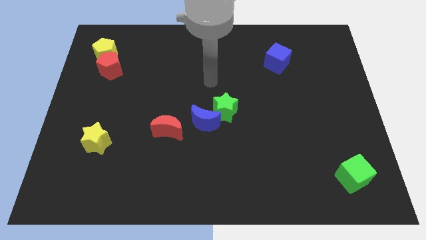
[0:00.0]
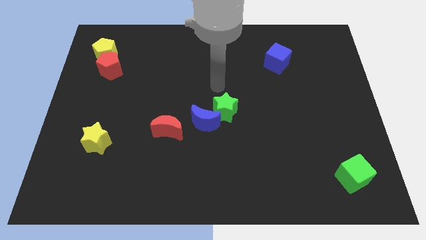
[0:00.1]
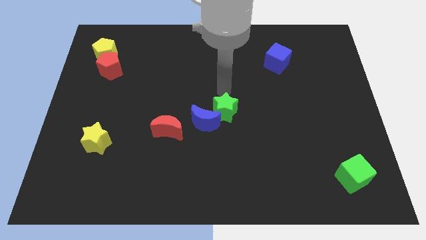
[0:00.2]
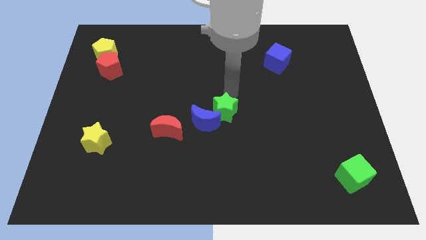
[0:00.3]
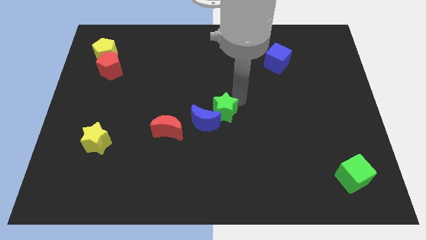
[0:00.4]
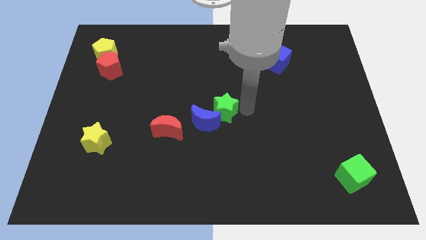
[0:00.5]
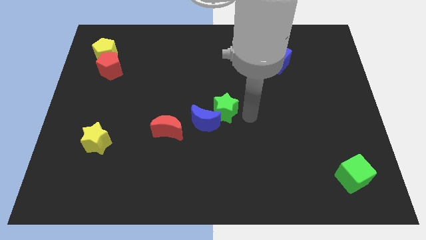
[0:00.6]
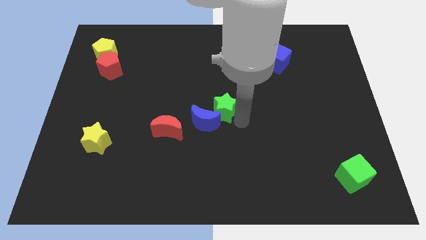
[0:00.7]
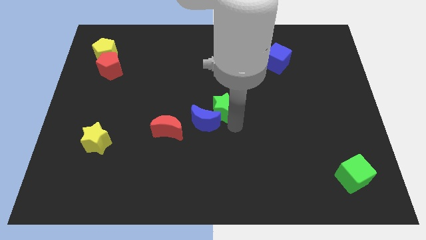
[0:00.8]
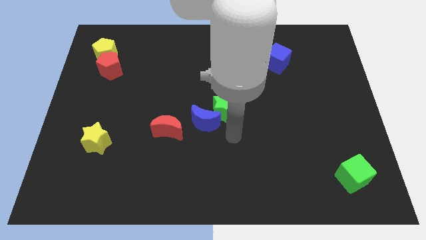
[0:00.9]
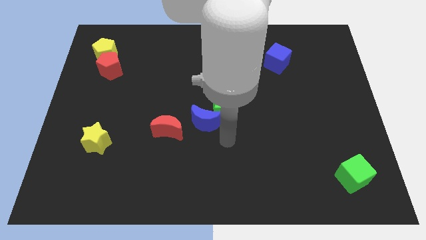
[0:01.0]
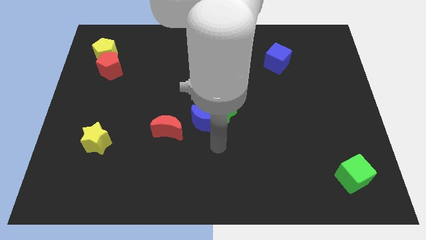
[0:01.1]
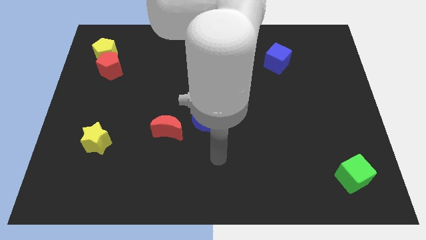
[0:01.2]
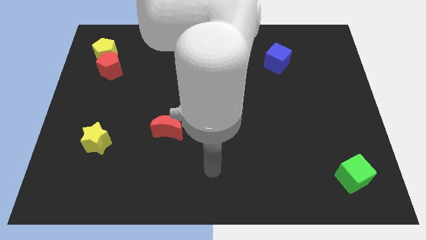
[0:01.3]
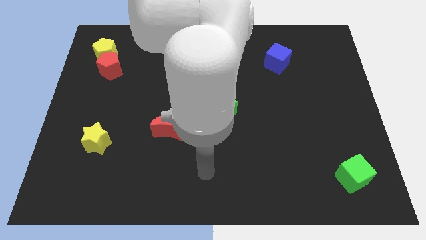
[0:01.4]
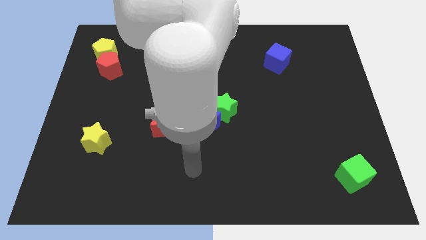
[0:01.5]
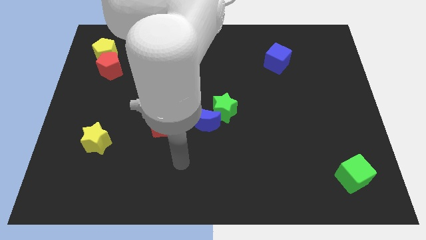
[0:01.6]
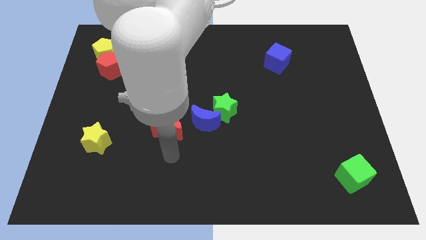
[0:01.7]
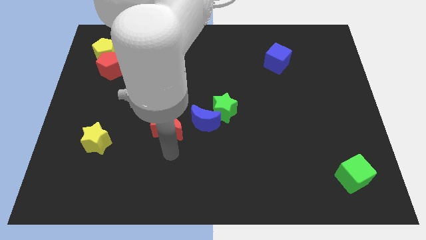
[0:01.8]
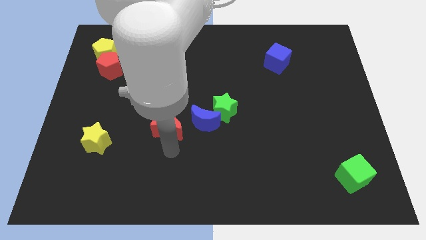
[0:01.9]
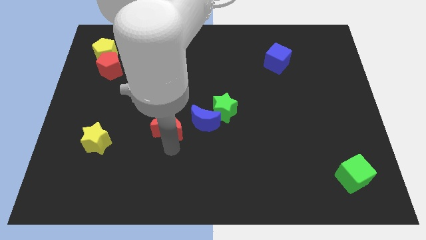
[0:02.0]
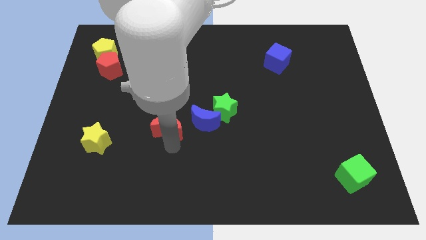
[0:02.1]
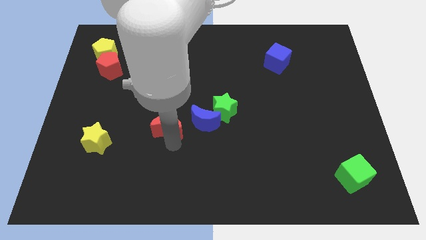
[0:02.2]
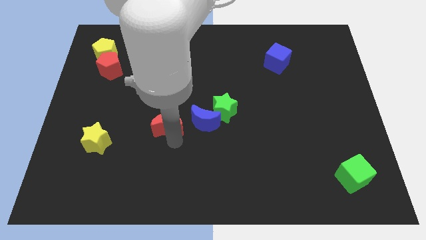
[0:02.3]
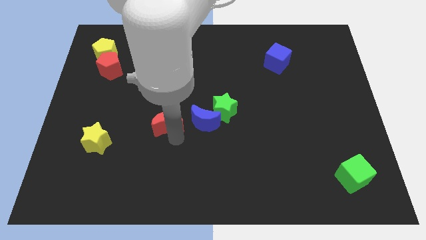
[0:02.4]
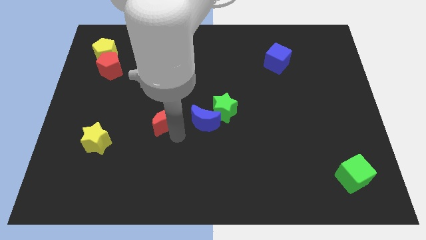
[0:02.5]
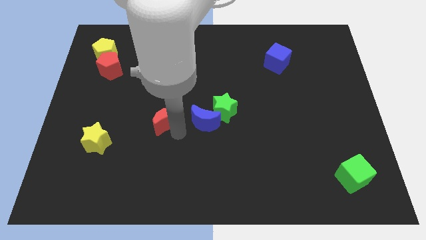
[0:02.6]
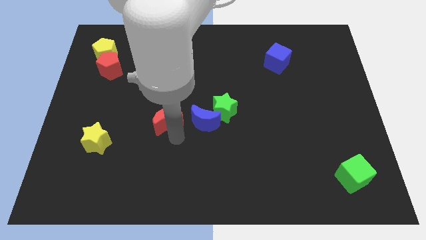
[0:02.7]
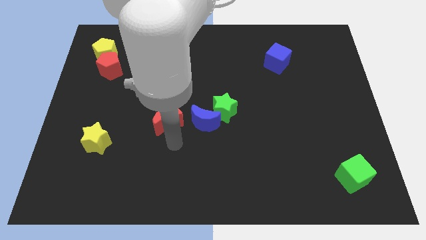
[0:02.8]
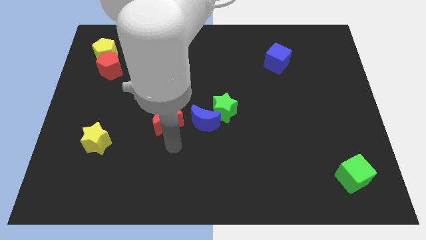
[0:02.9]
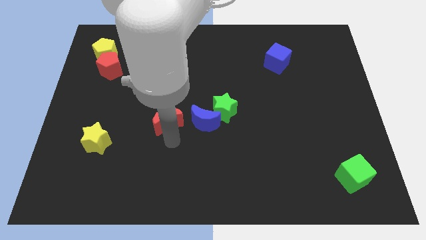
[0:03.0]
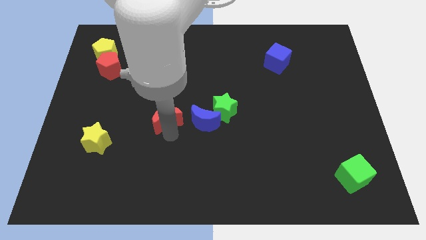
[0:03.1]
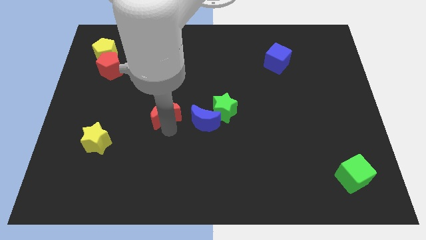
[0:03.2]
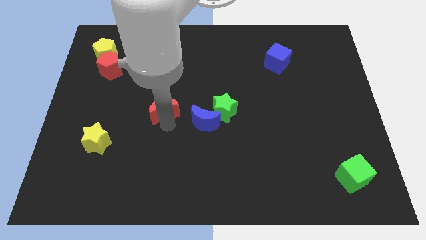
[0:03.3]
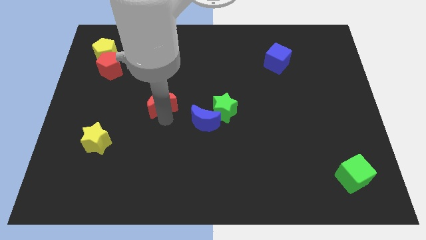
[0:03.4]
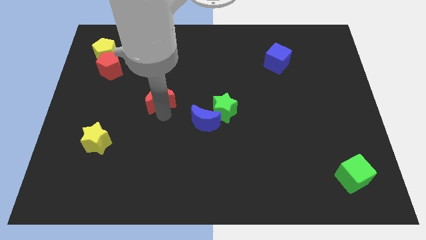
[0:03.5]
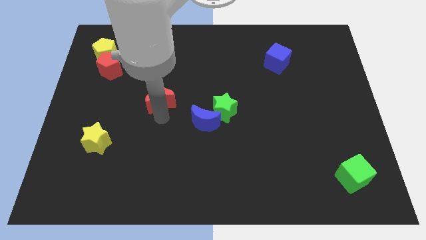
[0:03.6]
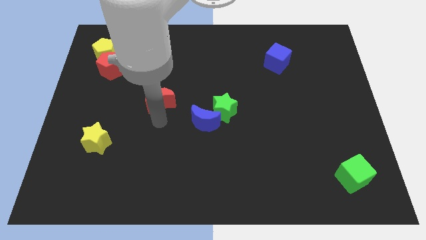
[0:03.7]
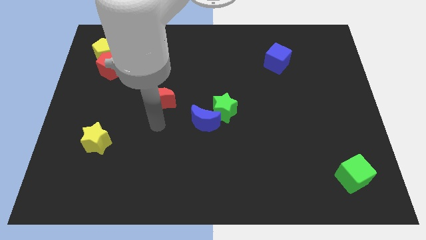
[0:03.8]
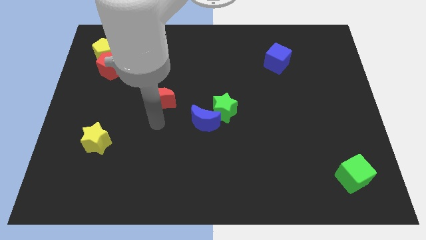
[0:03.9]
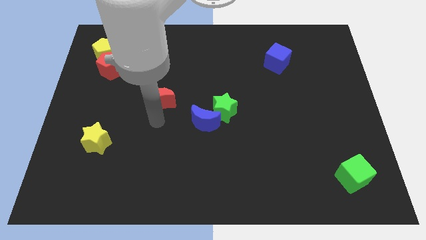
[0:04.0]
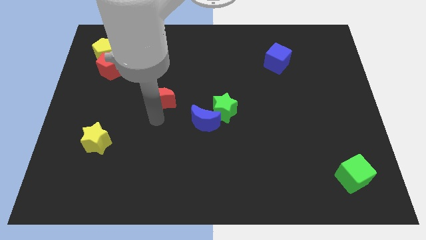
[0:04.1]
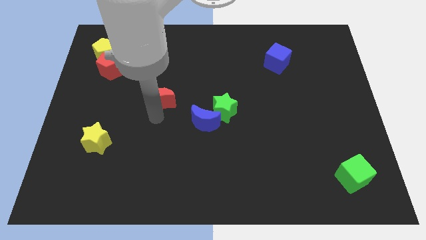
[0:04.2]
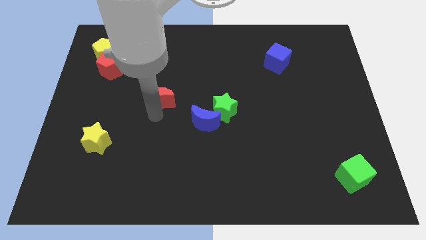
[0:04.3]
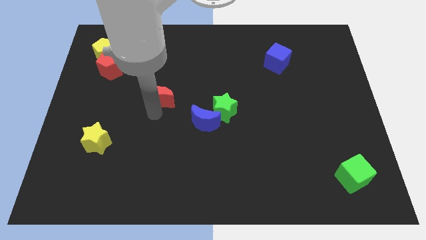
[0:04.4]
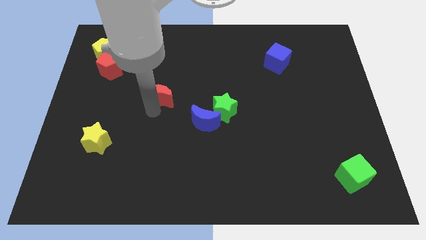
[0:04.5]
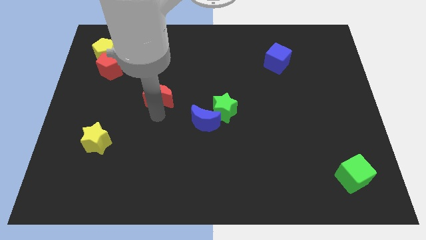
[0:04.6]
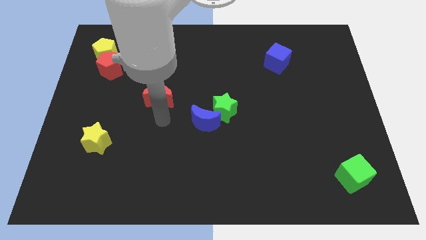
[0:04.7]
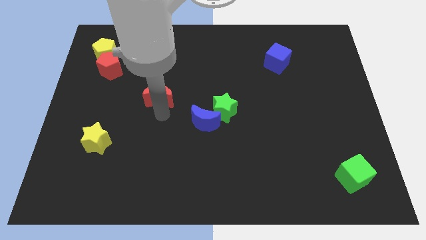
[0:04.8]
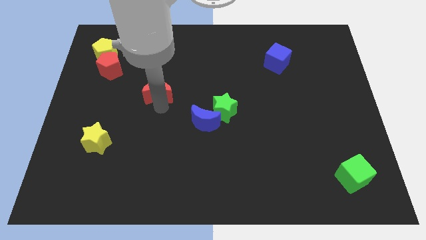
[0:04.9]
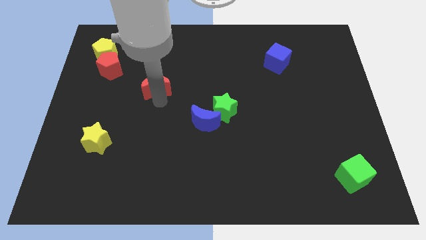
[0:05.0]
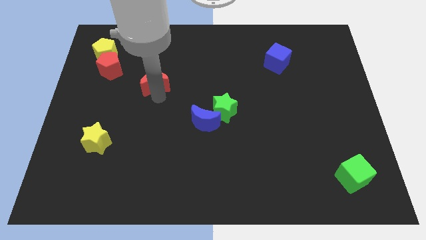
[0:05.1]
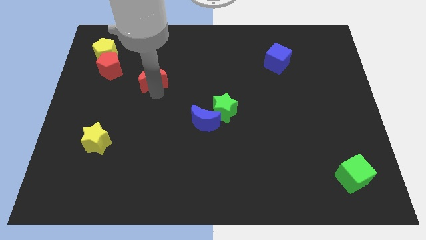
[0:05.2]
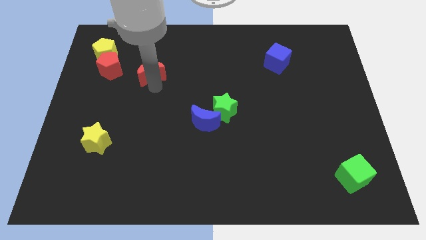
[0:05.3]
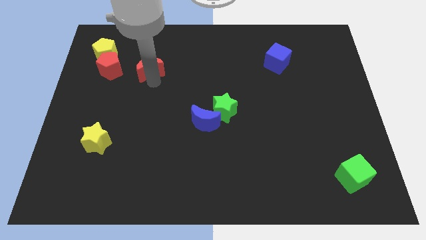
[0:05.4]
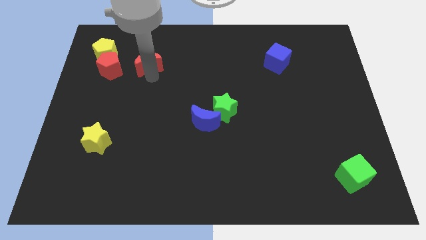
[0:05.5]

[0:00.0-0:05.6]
move the red moon just right of the yellow pentagon

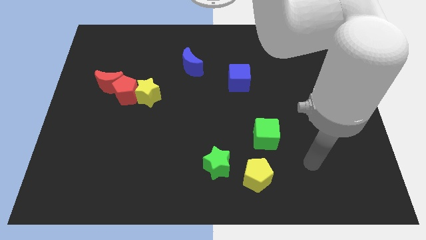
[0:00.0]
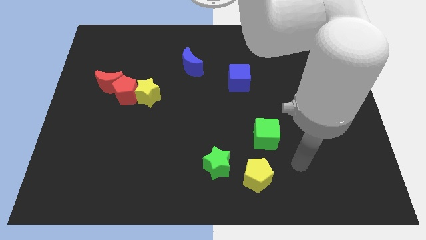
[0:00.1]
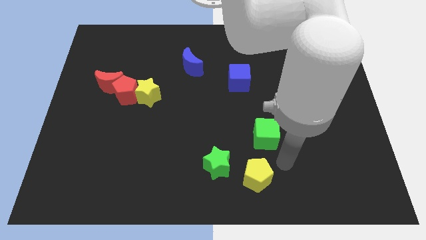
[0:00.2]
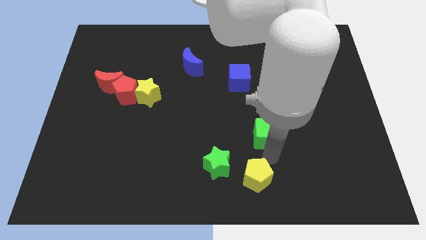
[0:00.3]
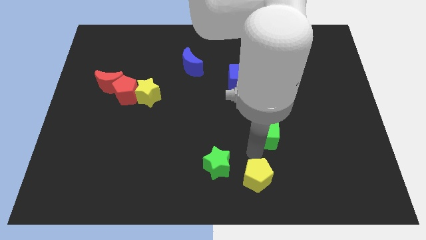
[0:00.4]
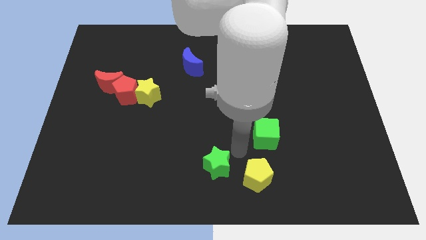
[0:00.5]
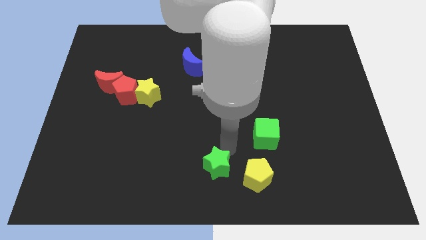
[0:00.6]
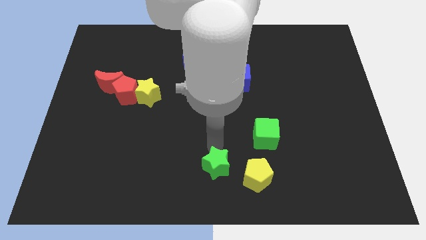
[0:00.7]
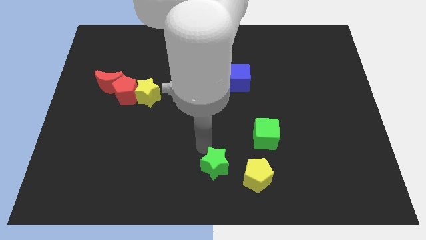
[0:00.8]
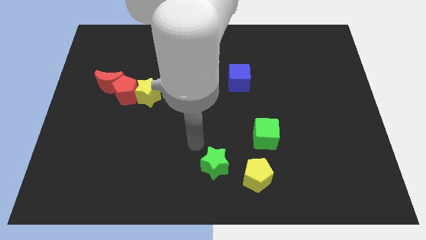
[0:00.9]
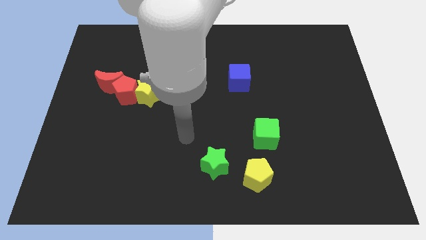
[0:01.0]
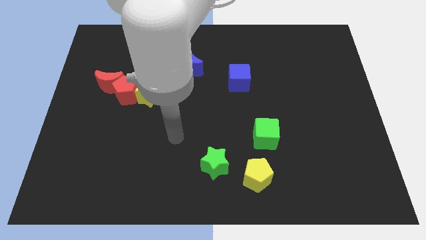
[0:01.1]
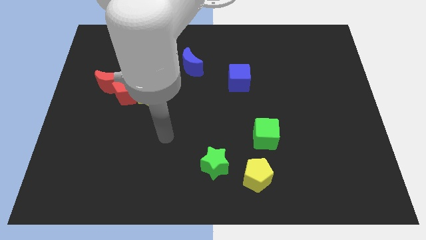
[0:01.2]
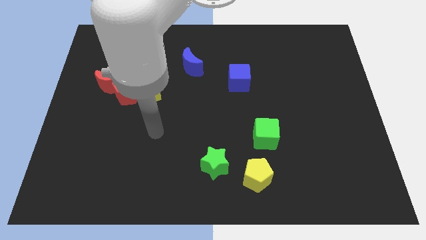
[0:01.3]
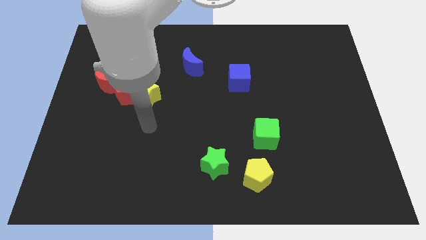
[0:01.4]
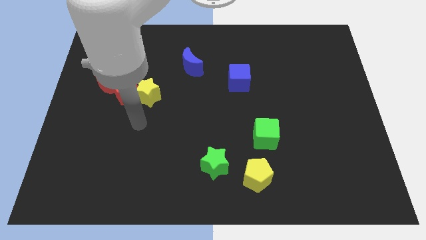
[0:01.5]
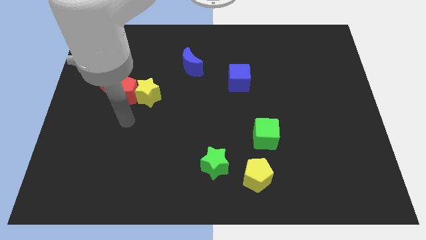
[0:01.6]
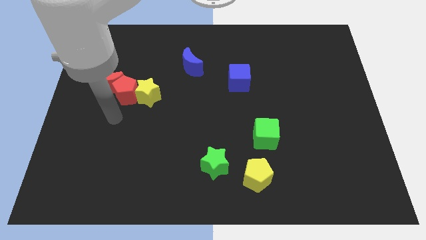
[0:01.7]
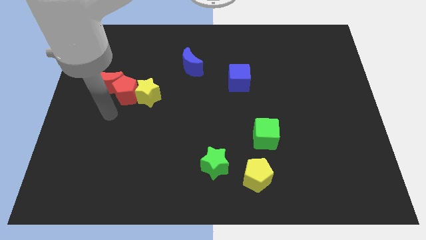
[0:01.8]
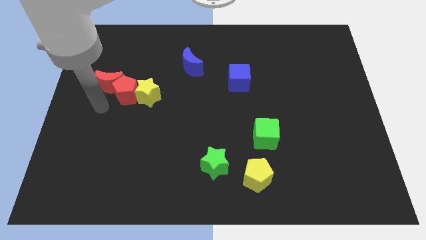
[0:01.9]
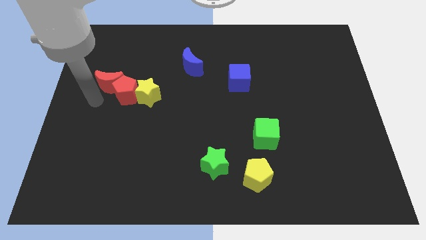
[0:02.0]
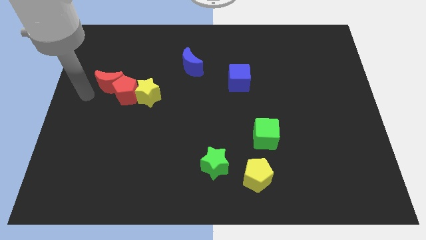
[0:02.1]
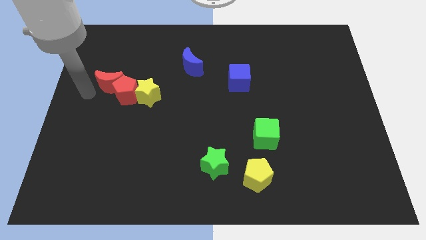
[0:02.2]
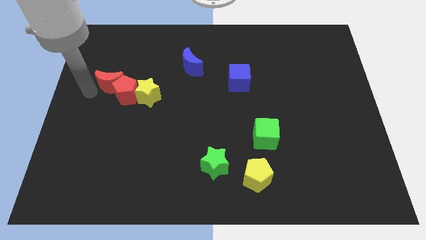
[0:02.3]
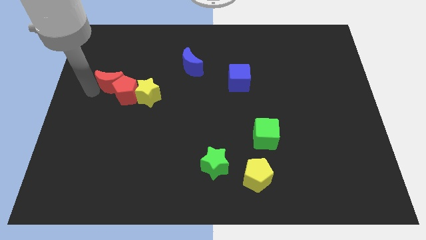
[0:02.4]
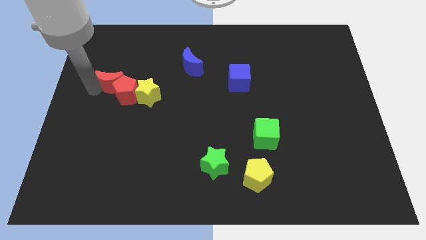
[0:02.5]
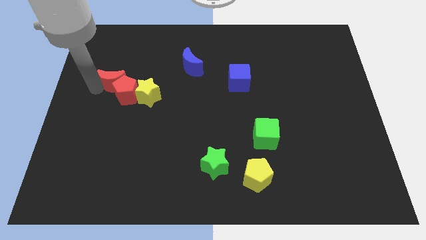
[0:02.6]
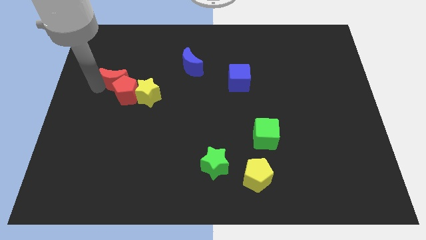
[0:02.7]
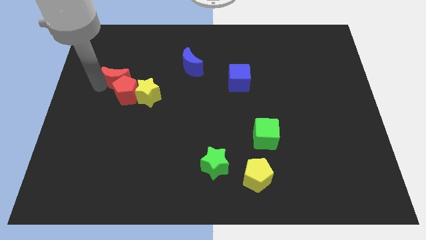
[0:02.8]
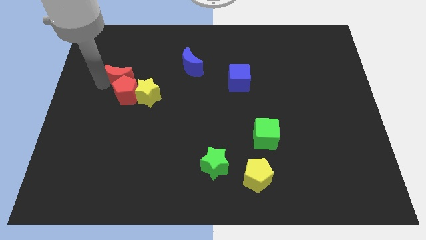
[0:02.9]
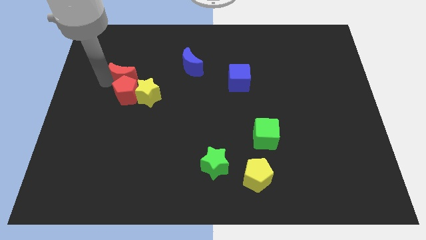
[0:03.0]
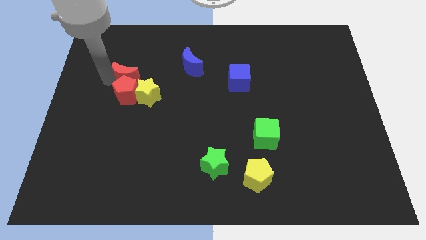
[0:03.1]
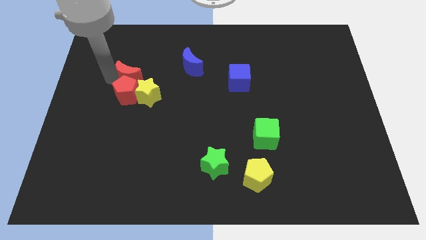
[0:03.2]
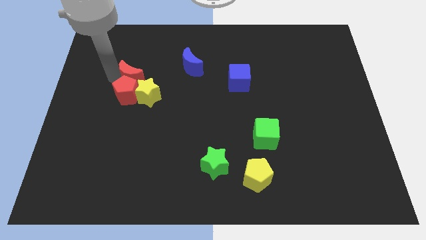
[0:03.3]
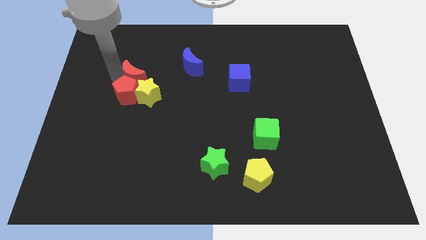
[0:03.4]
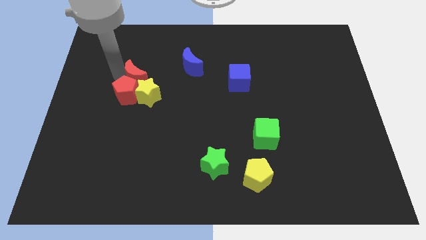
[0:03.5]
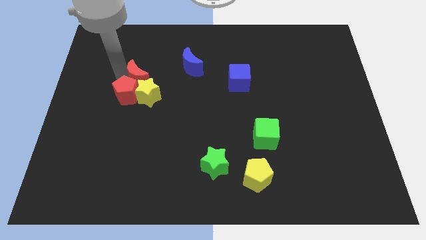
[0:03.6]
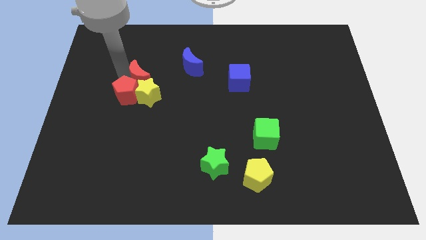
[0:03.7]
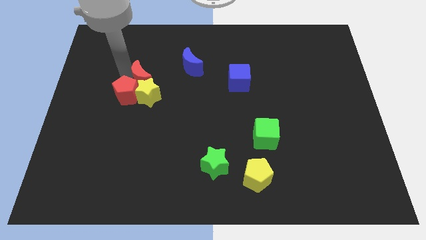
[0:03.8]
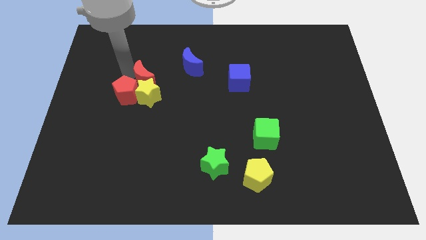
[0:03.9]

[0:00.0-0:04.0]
put the red moon to the top right of the yellow star
